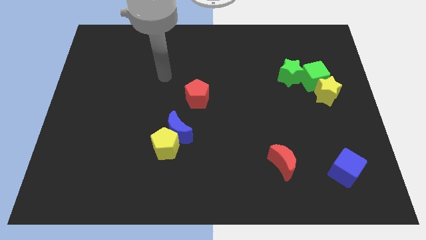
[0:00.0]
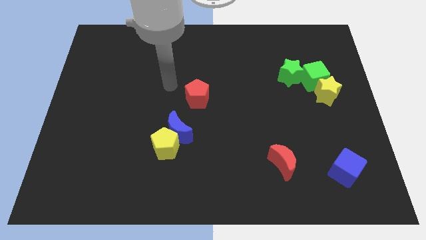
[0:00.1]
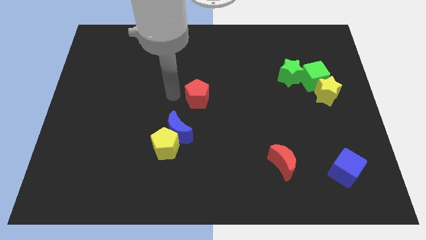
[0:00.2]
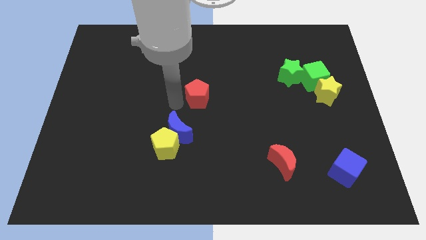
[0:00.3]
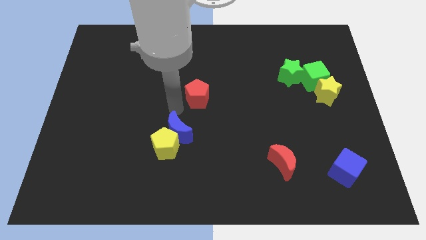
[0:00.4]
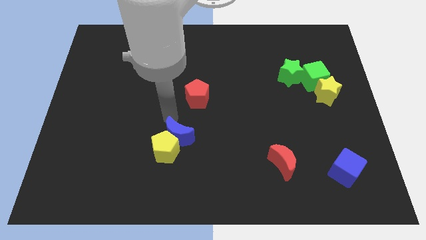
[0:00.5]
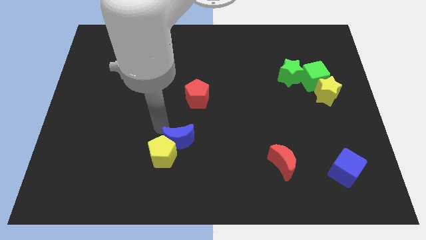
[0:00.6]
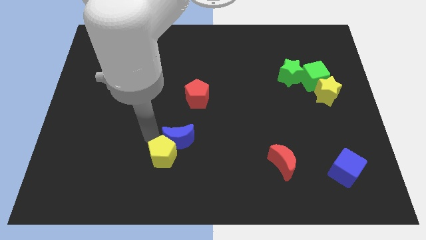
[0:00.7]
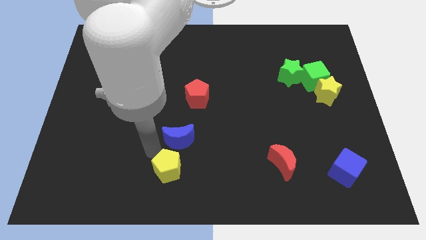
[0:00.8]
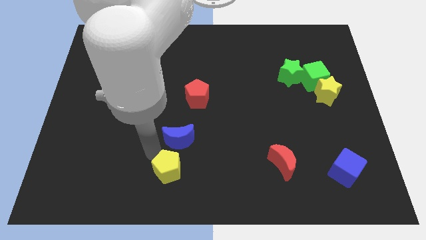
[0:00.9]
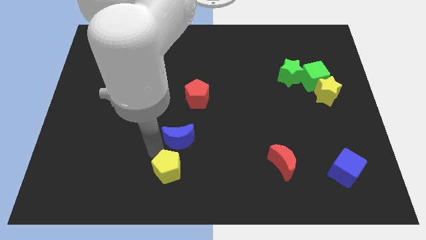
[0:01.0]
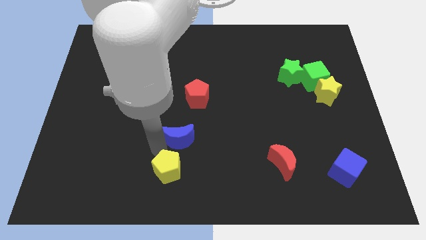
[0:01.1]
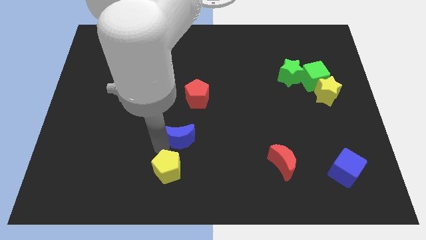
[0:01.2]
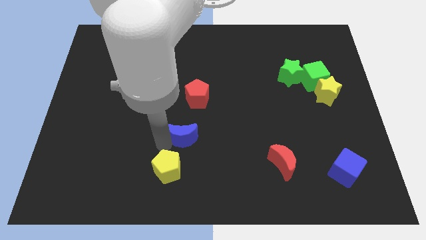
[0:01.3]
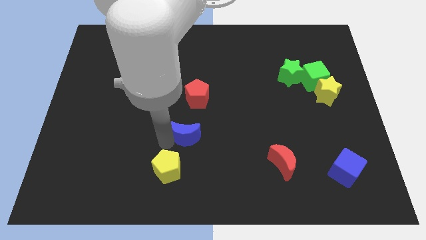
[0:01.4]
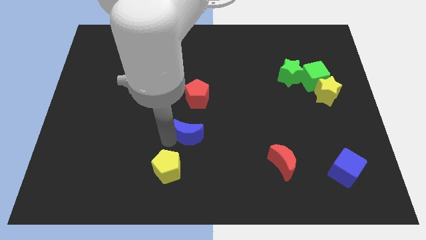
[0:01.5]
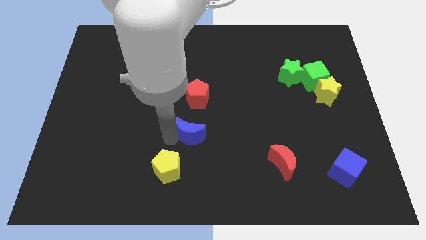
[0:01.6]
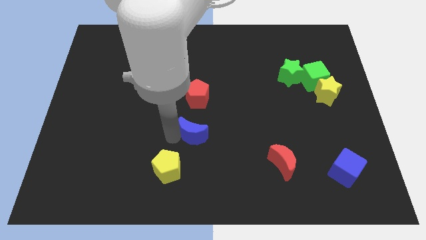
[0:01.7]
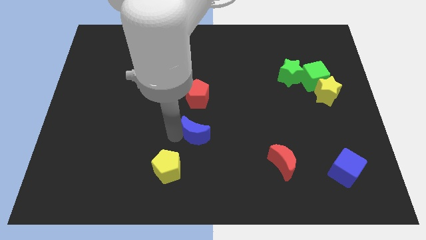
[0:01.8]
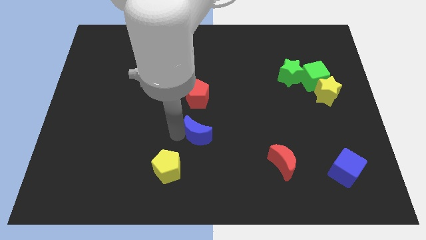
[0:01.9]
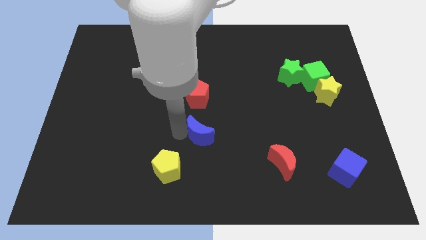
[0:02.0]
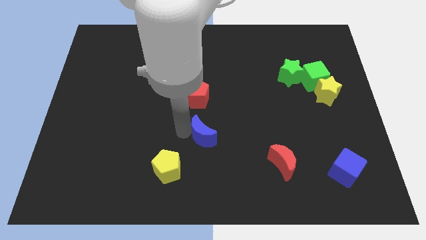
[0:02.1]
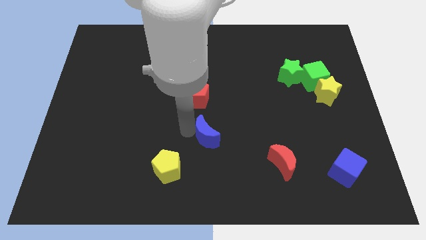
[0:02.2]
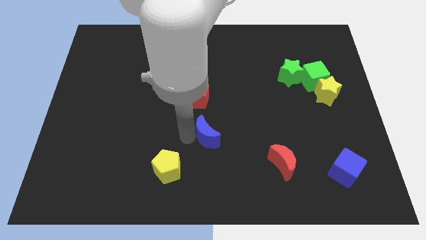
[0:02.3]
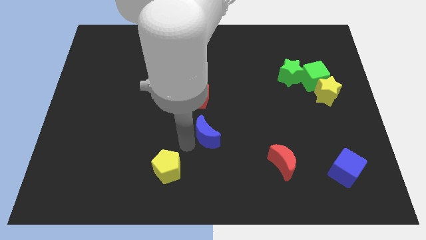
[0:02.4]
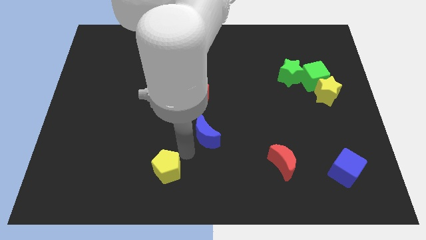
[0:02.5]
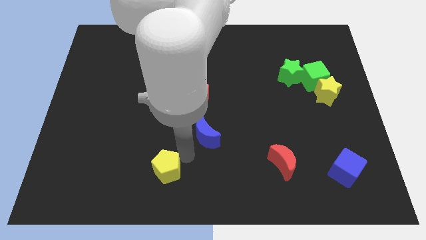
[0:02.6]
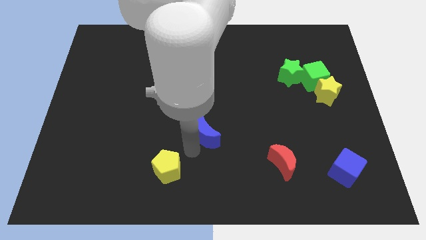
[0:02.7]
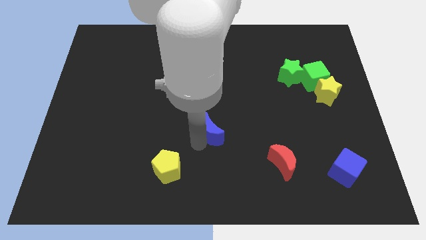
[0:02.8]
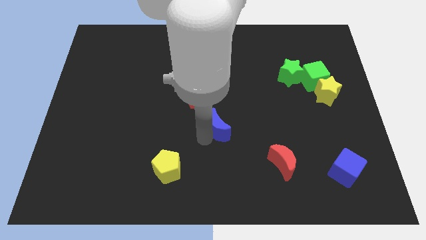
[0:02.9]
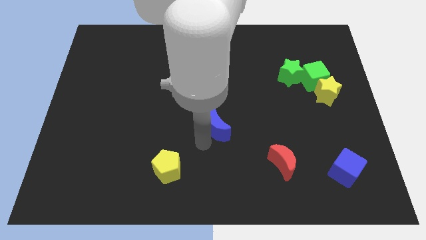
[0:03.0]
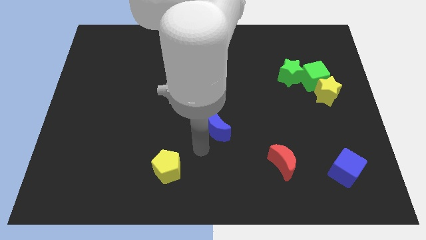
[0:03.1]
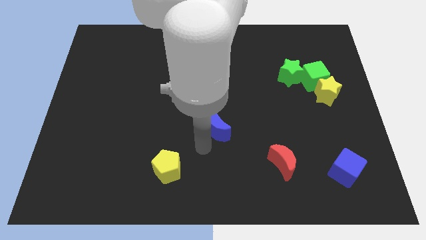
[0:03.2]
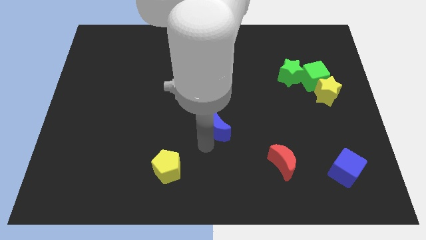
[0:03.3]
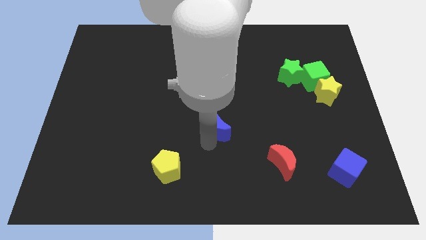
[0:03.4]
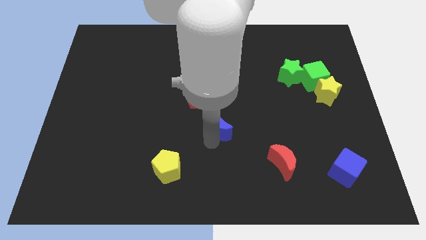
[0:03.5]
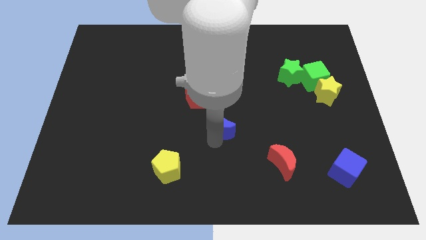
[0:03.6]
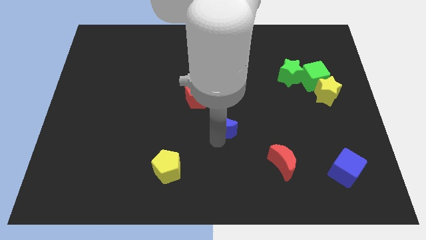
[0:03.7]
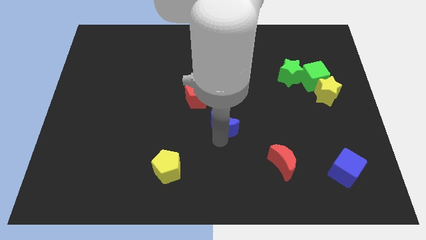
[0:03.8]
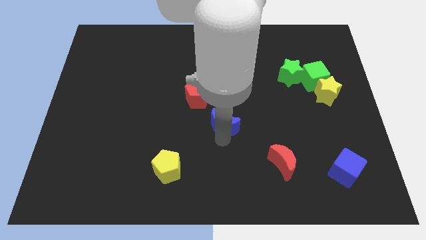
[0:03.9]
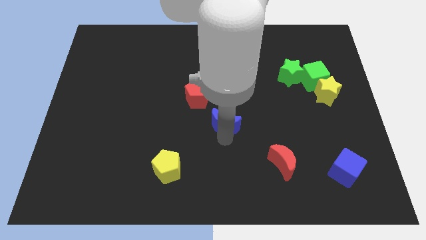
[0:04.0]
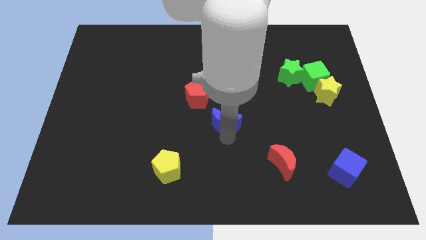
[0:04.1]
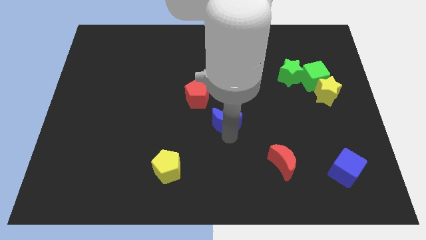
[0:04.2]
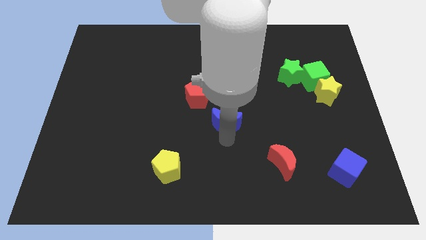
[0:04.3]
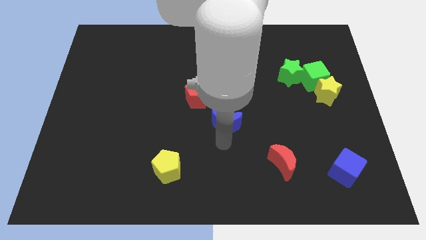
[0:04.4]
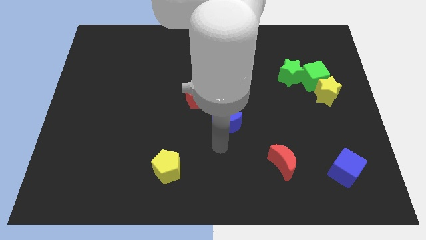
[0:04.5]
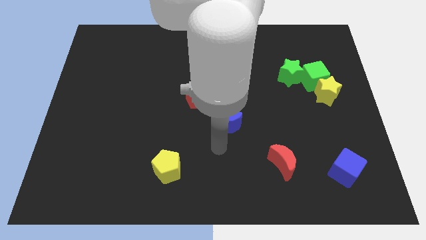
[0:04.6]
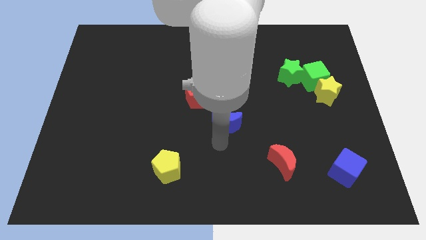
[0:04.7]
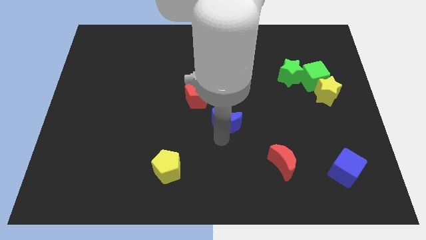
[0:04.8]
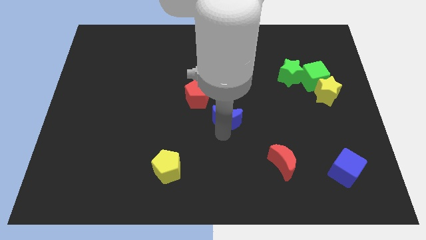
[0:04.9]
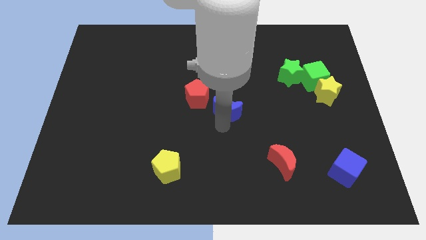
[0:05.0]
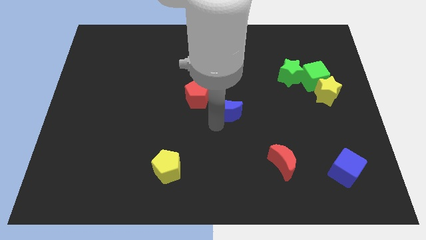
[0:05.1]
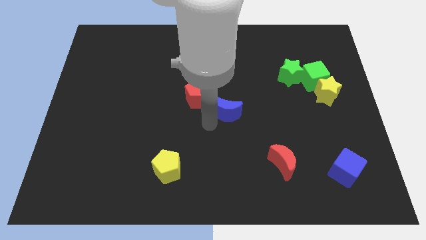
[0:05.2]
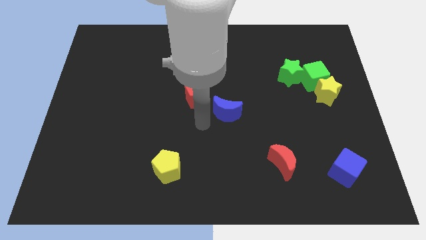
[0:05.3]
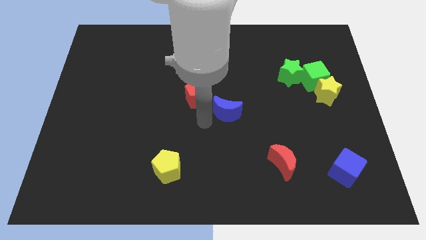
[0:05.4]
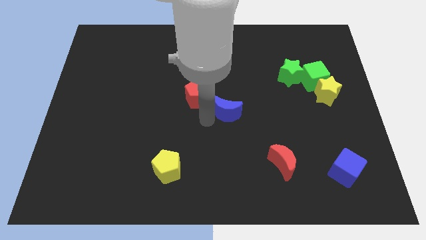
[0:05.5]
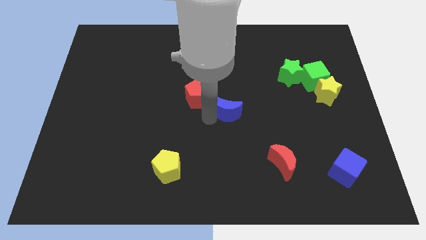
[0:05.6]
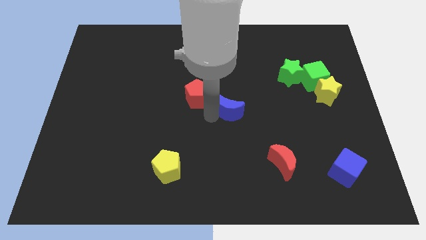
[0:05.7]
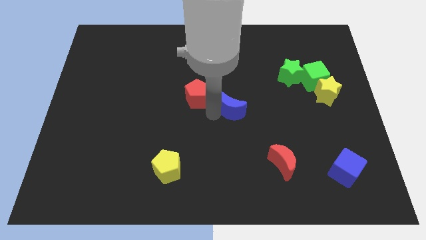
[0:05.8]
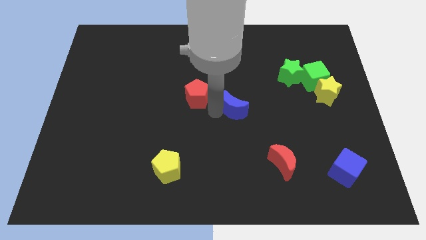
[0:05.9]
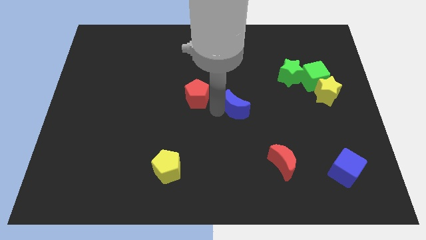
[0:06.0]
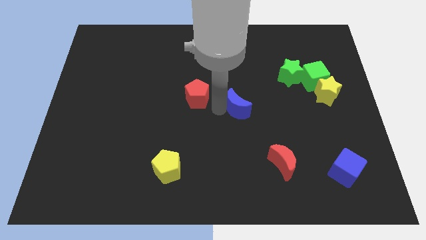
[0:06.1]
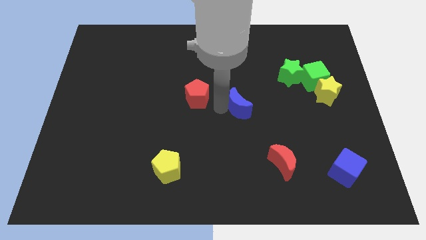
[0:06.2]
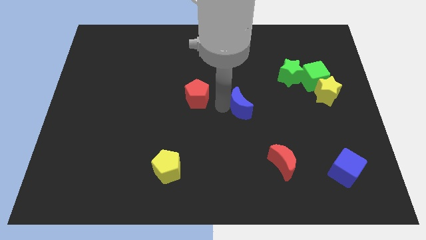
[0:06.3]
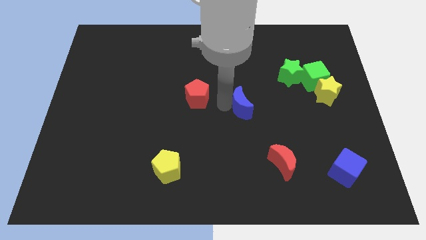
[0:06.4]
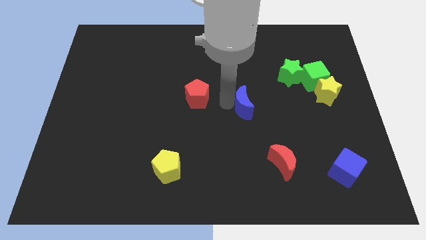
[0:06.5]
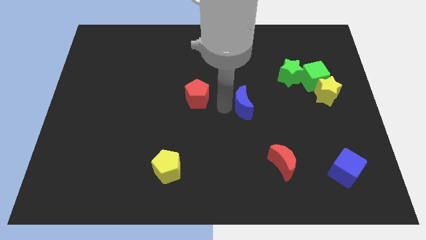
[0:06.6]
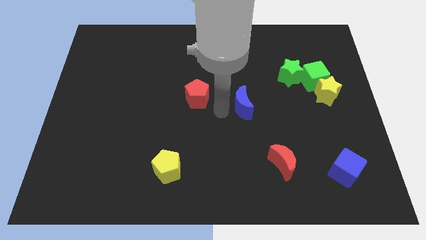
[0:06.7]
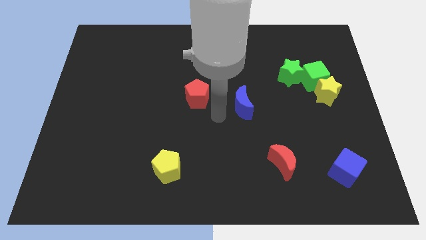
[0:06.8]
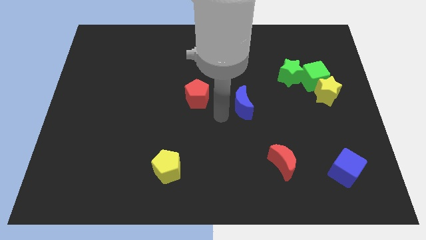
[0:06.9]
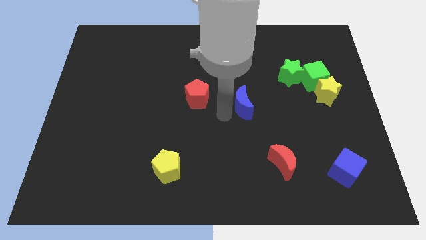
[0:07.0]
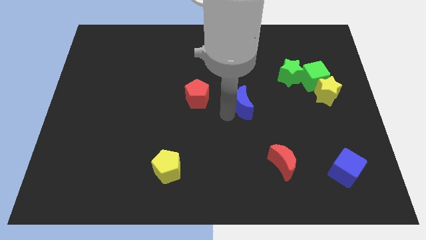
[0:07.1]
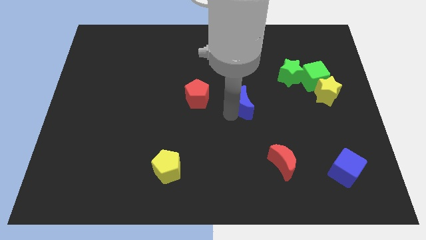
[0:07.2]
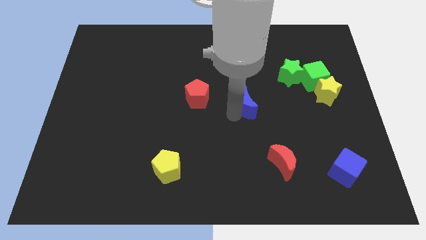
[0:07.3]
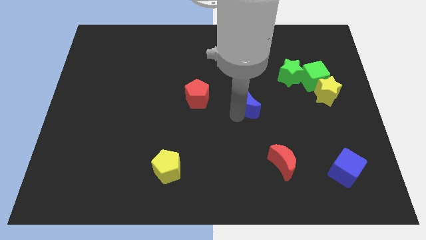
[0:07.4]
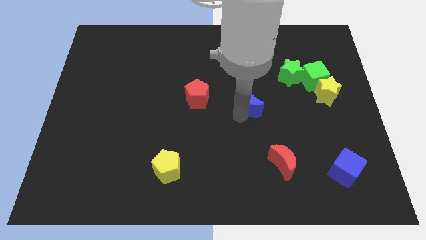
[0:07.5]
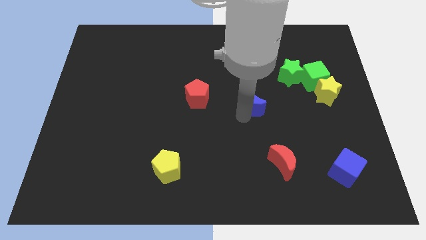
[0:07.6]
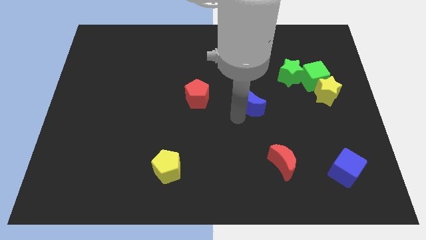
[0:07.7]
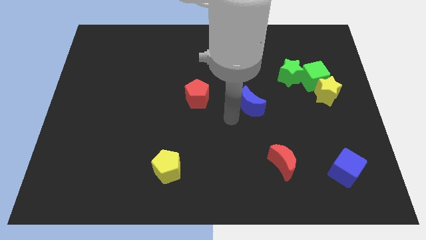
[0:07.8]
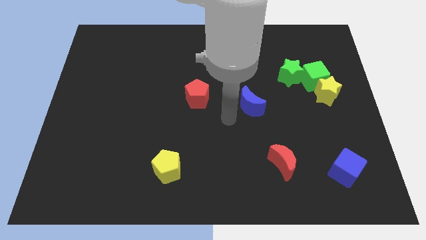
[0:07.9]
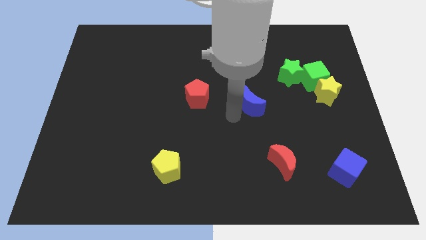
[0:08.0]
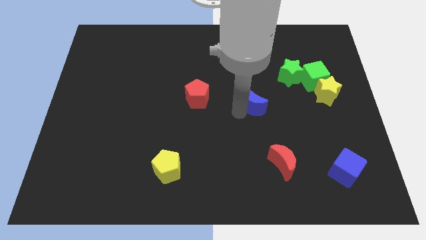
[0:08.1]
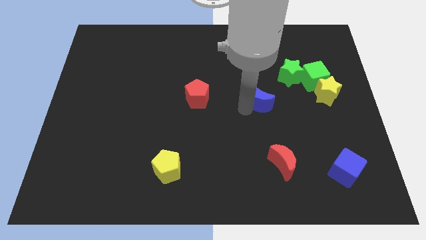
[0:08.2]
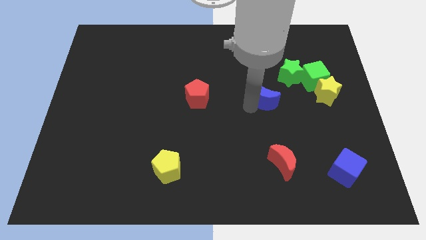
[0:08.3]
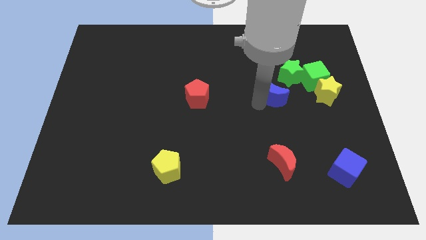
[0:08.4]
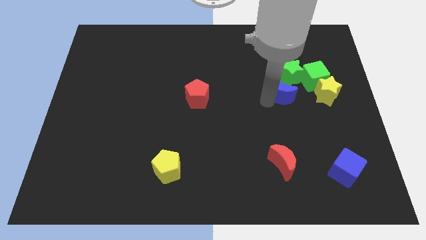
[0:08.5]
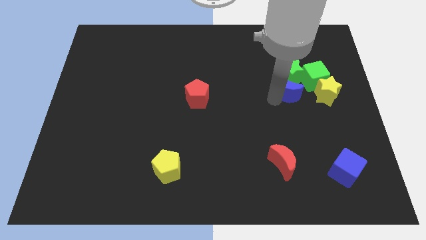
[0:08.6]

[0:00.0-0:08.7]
put the blue moon close to the green star
